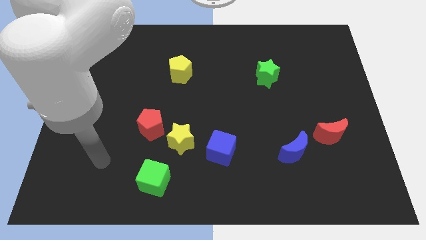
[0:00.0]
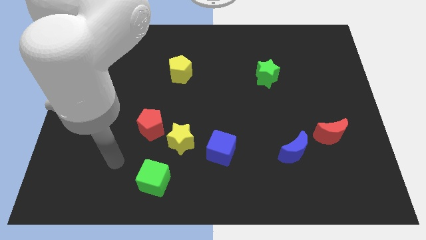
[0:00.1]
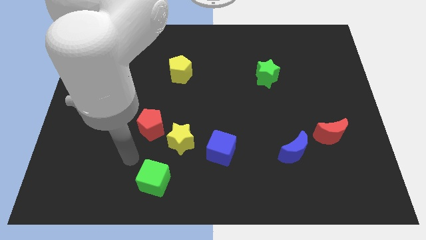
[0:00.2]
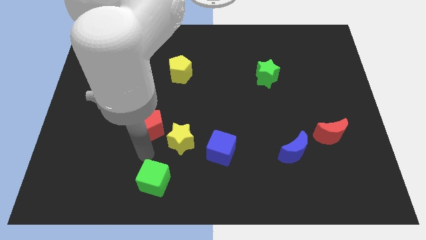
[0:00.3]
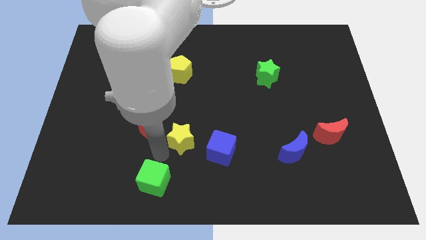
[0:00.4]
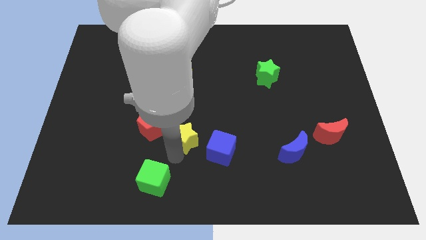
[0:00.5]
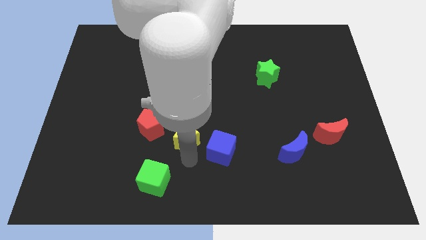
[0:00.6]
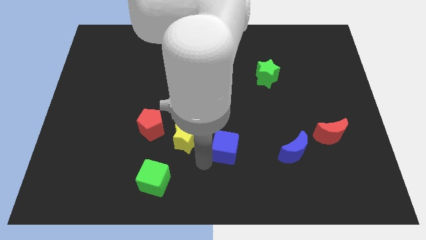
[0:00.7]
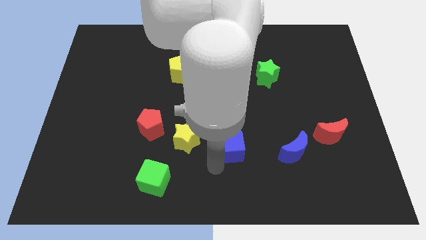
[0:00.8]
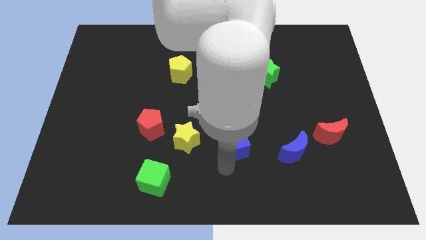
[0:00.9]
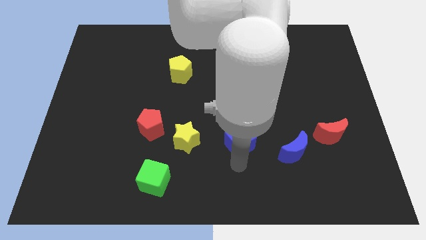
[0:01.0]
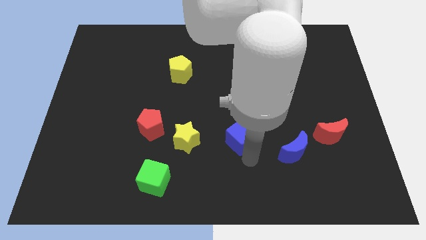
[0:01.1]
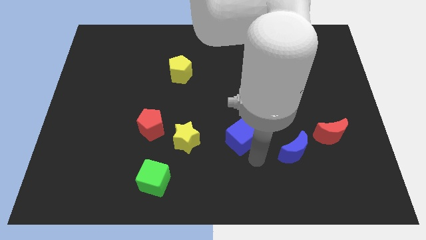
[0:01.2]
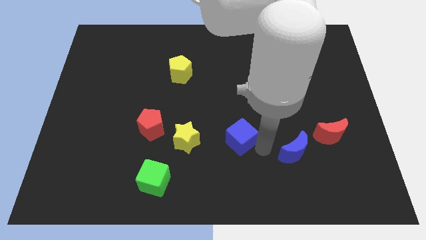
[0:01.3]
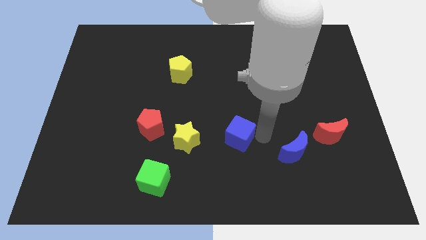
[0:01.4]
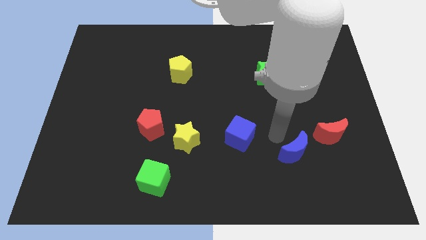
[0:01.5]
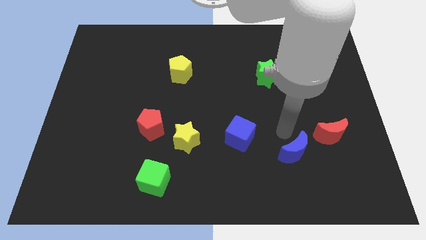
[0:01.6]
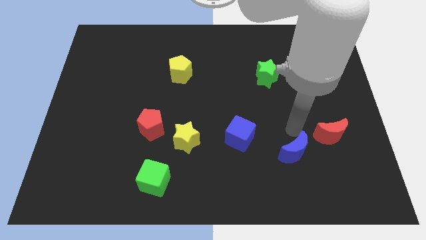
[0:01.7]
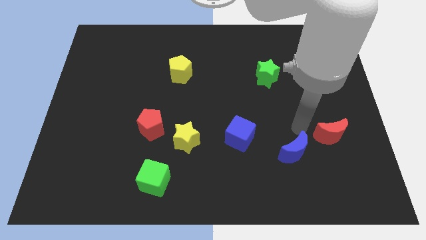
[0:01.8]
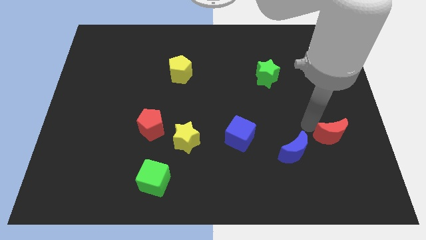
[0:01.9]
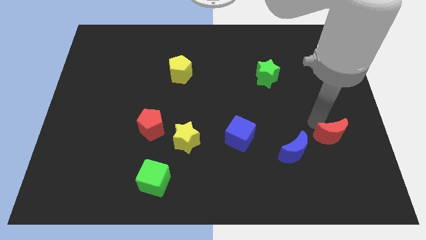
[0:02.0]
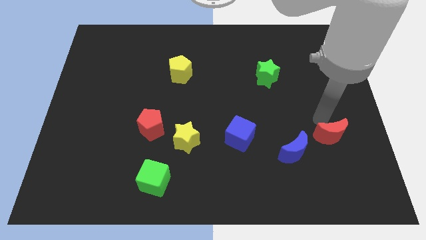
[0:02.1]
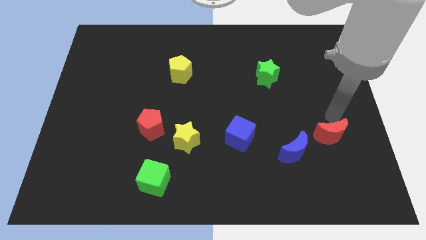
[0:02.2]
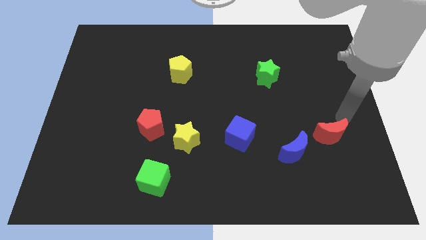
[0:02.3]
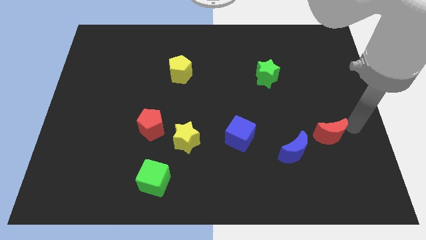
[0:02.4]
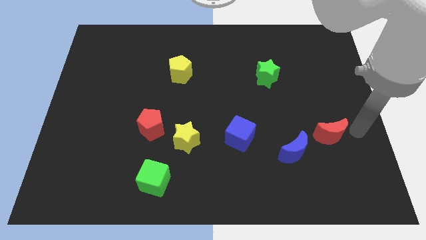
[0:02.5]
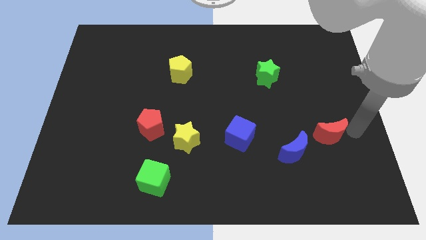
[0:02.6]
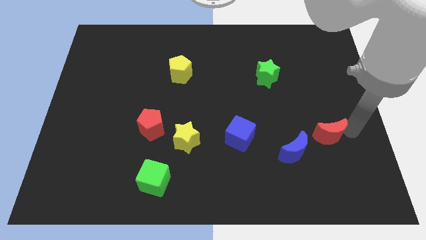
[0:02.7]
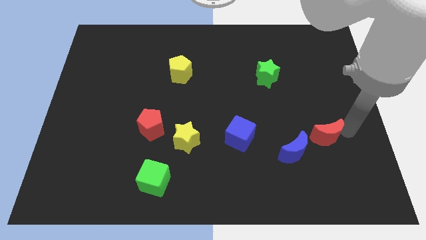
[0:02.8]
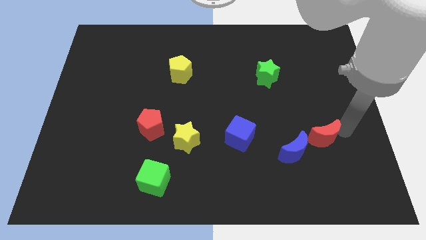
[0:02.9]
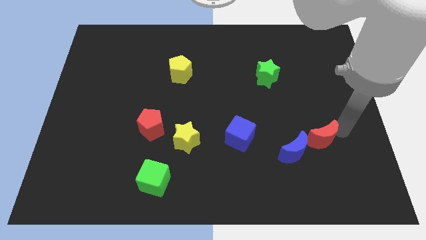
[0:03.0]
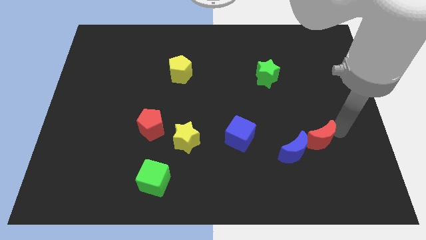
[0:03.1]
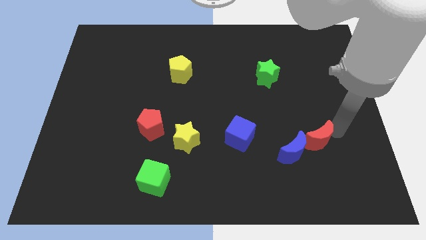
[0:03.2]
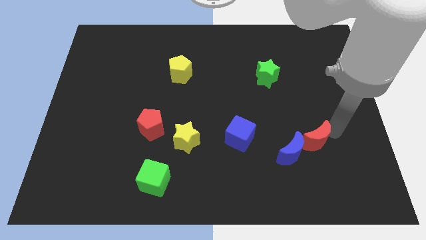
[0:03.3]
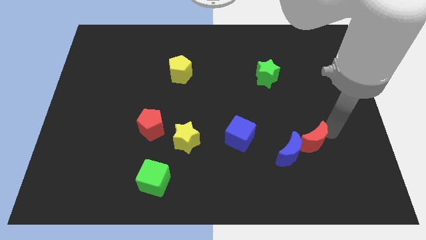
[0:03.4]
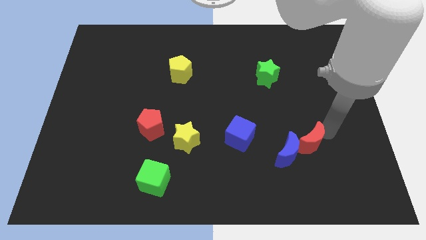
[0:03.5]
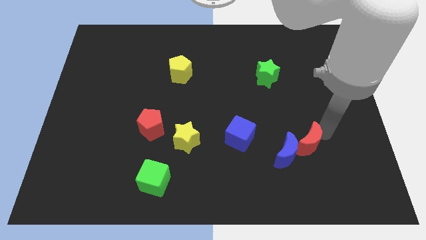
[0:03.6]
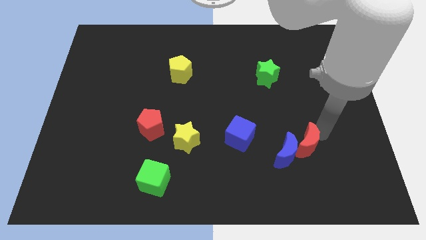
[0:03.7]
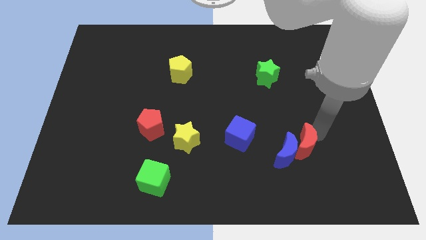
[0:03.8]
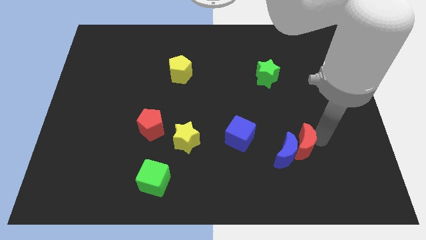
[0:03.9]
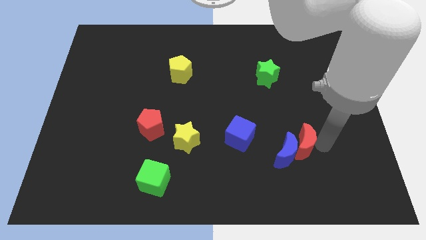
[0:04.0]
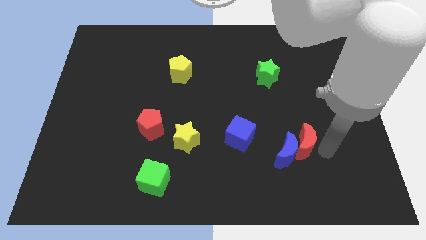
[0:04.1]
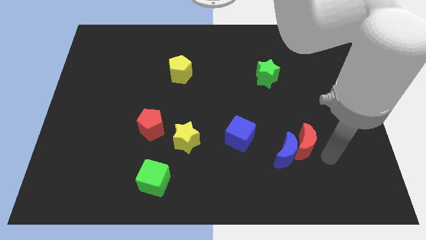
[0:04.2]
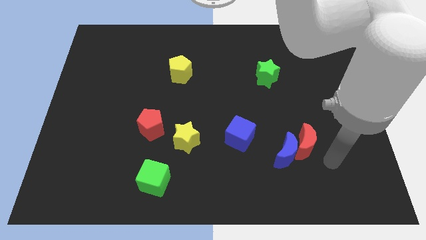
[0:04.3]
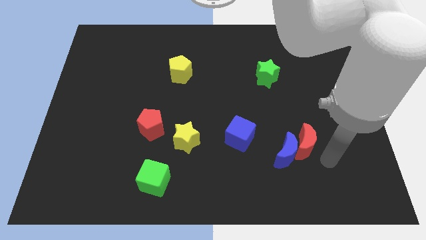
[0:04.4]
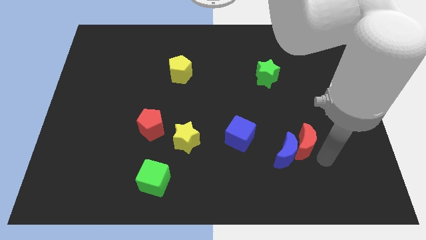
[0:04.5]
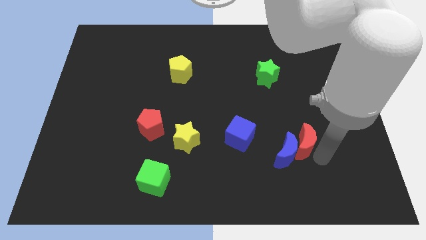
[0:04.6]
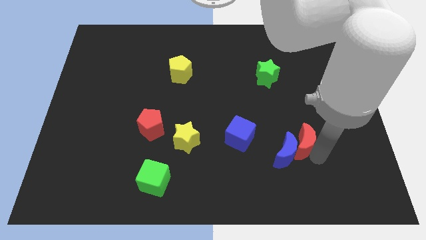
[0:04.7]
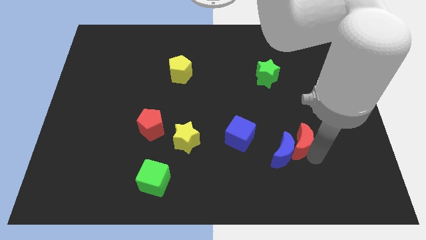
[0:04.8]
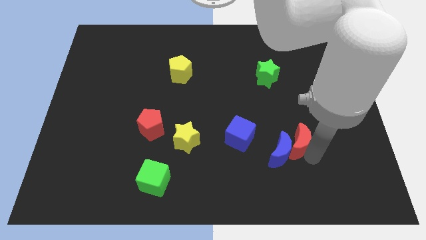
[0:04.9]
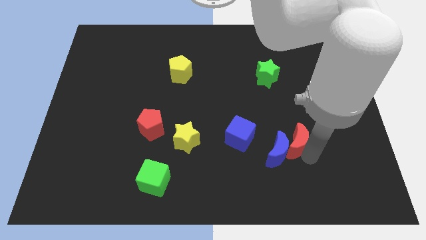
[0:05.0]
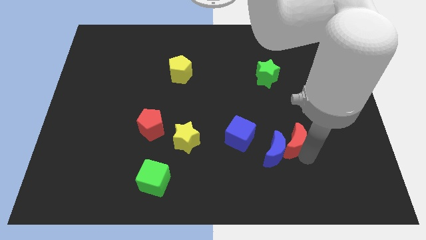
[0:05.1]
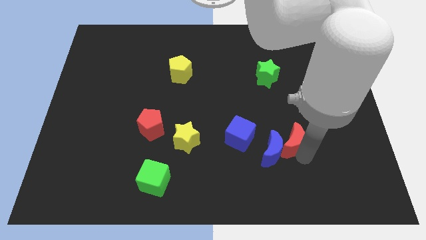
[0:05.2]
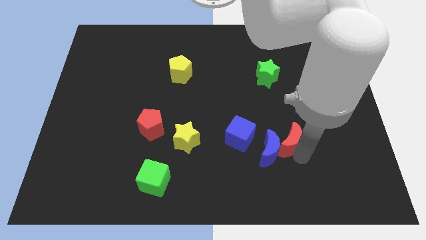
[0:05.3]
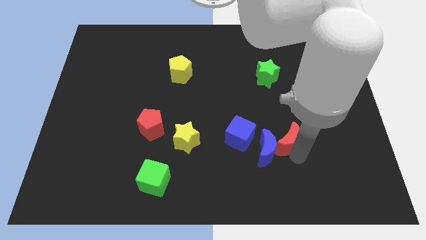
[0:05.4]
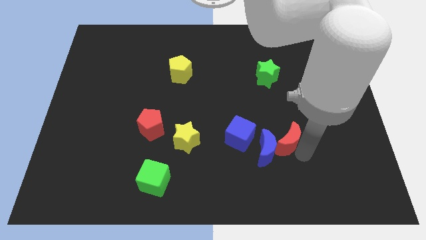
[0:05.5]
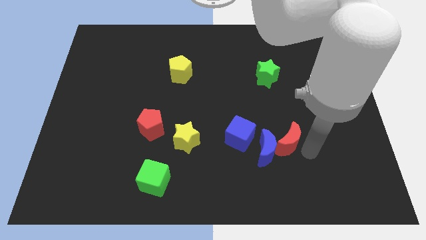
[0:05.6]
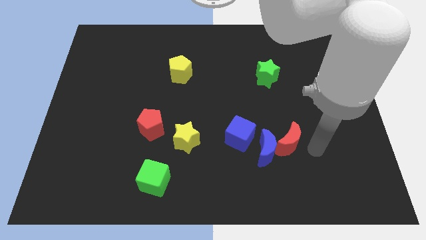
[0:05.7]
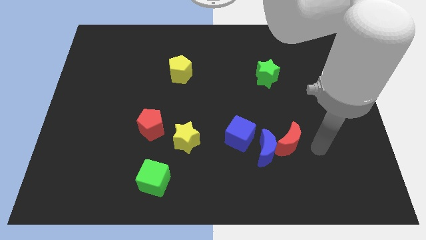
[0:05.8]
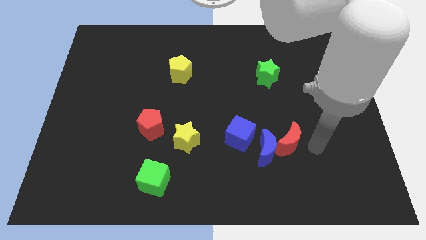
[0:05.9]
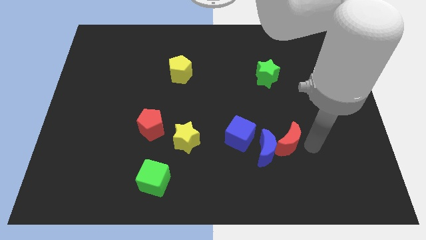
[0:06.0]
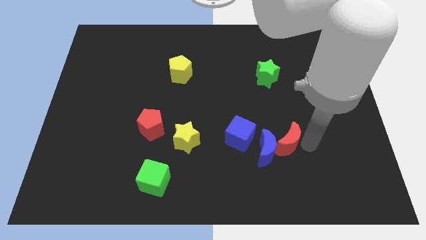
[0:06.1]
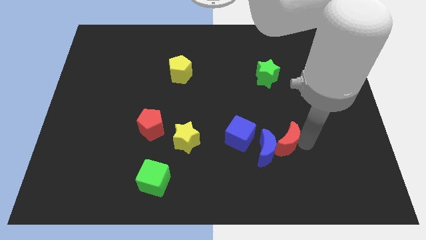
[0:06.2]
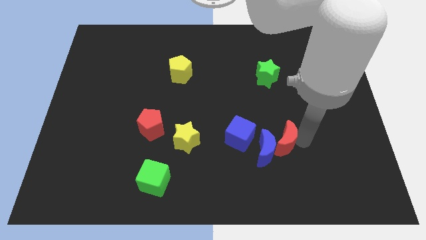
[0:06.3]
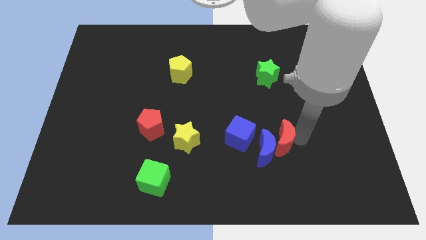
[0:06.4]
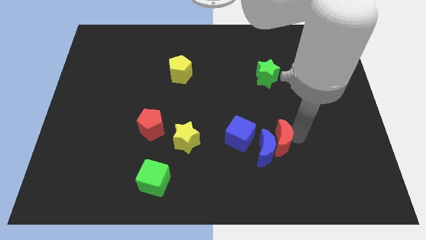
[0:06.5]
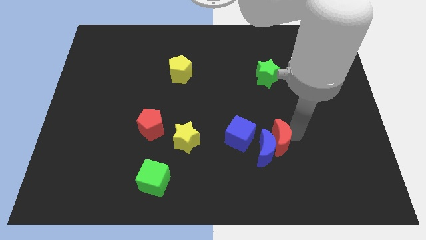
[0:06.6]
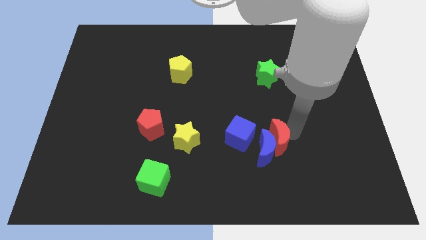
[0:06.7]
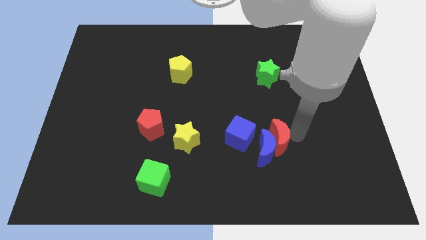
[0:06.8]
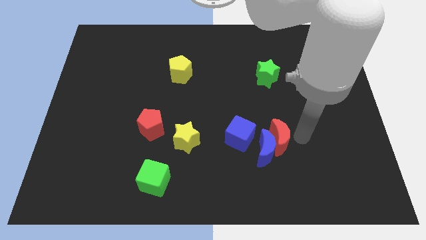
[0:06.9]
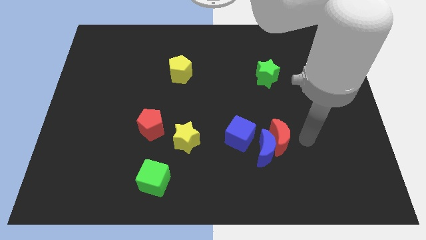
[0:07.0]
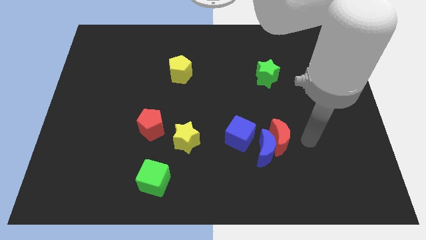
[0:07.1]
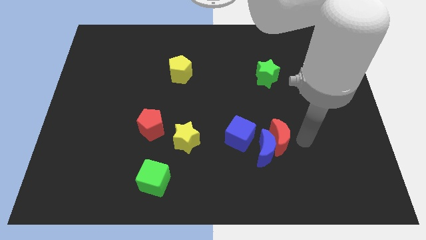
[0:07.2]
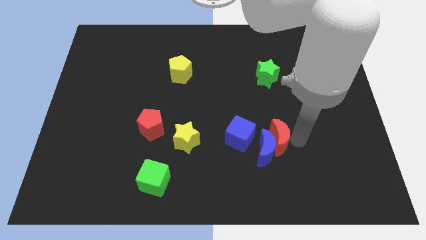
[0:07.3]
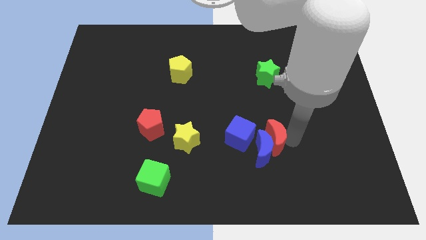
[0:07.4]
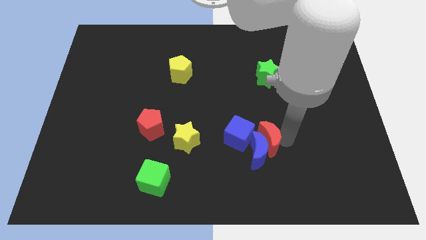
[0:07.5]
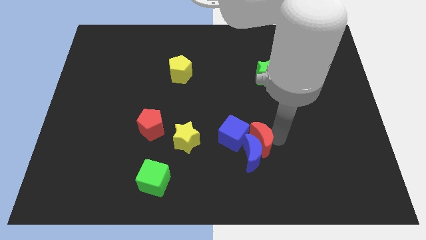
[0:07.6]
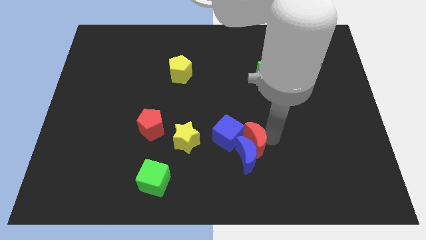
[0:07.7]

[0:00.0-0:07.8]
slide the red moon to the blue cube
